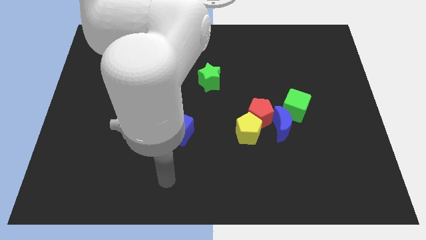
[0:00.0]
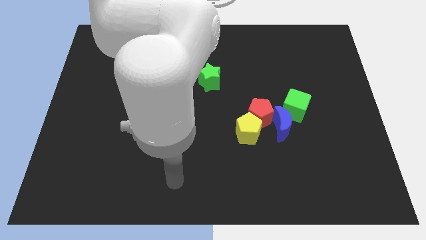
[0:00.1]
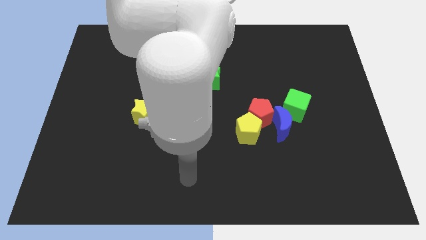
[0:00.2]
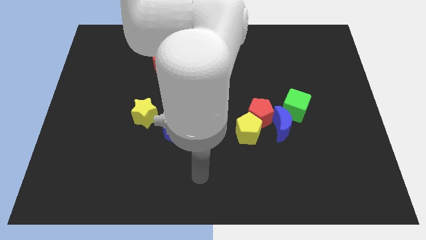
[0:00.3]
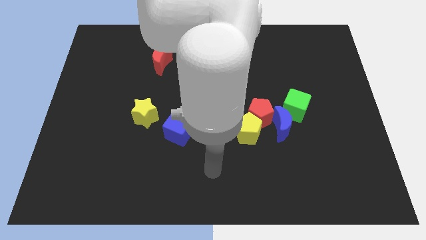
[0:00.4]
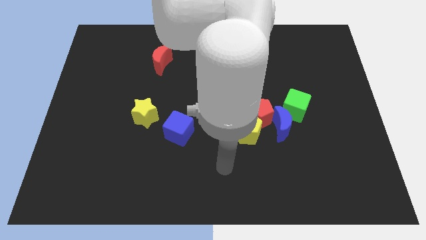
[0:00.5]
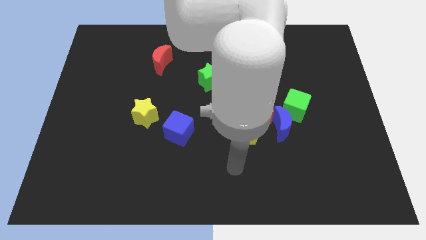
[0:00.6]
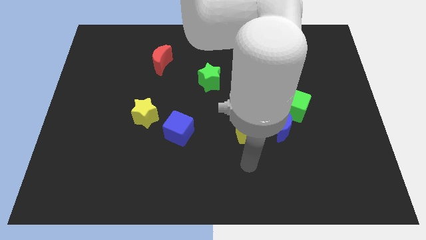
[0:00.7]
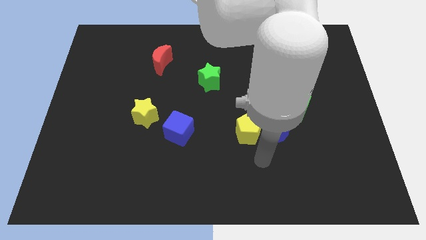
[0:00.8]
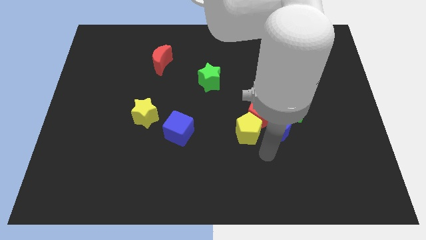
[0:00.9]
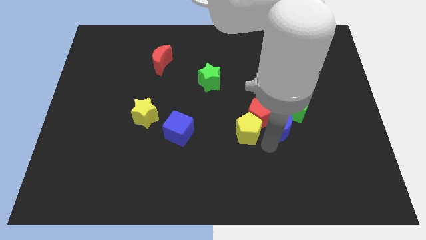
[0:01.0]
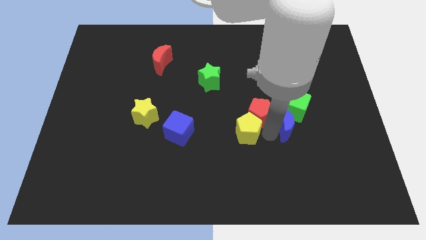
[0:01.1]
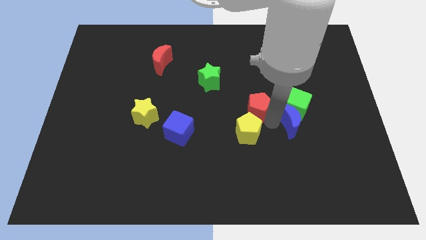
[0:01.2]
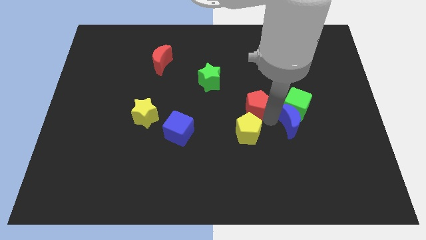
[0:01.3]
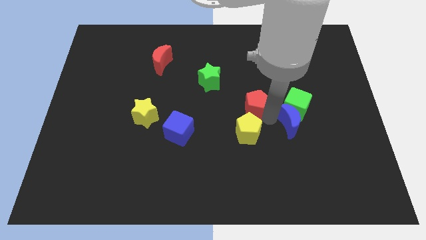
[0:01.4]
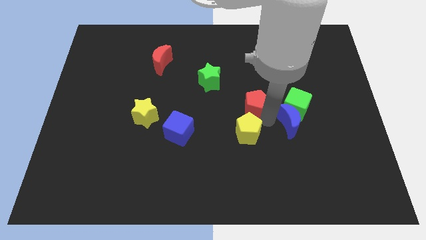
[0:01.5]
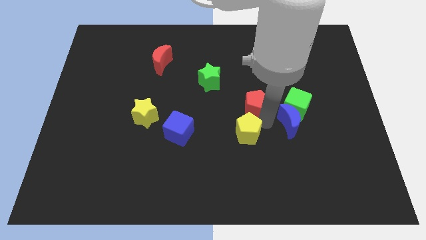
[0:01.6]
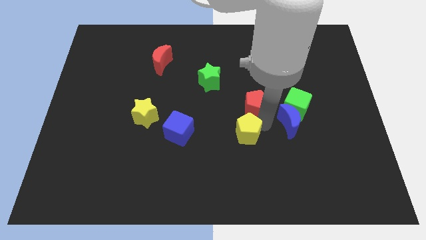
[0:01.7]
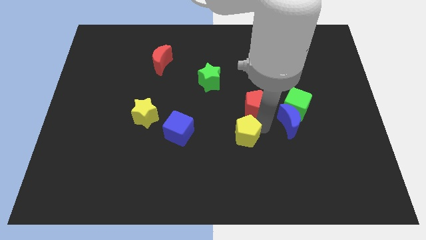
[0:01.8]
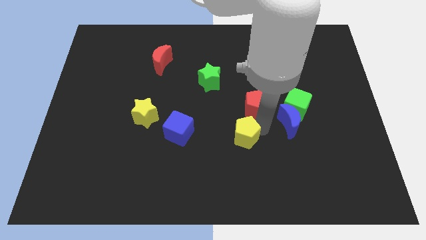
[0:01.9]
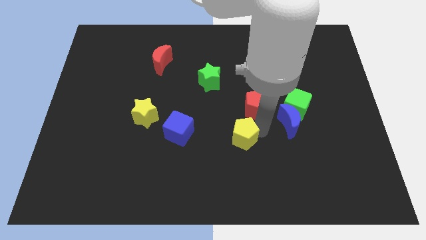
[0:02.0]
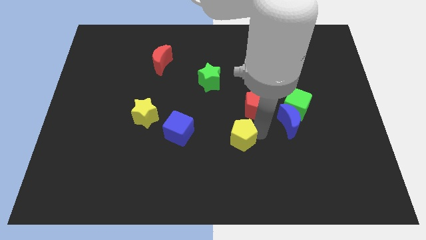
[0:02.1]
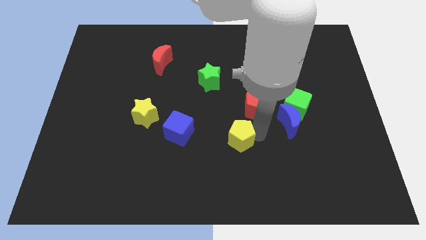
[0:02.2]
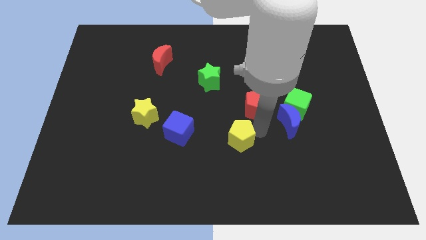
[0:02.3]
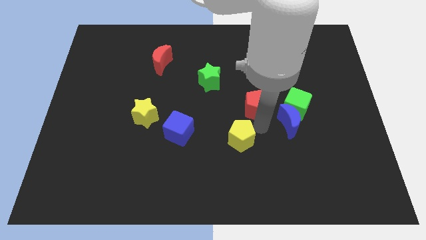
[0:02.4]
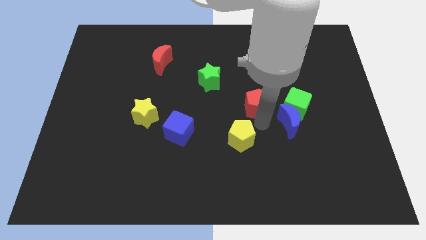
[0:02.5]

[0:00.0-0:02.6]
separate the yellow pentagon from the red pentagon and blue moon

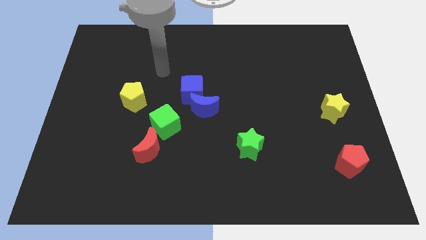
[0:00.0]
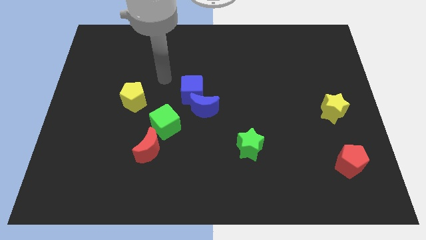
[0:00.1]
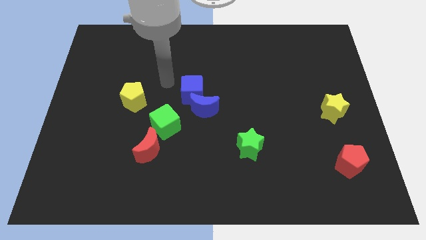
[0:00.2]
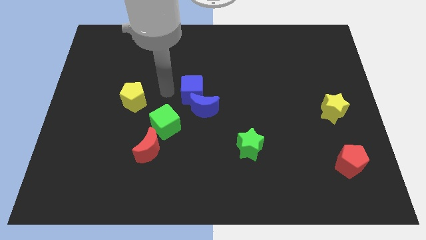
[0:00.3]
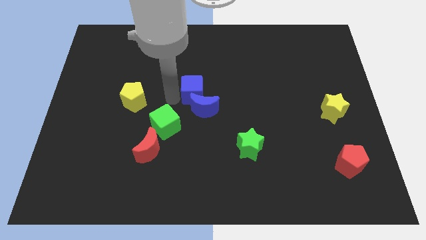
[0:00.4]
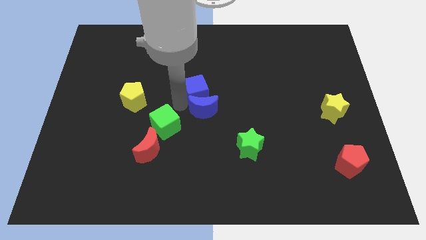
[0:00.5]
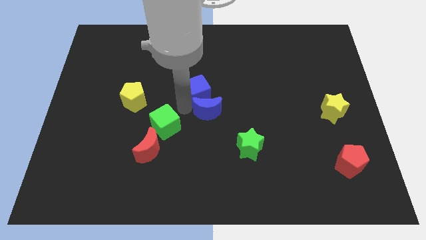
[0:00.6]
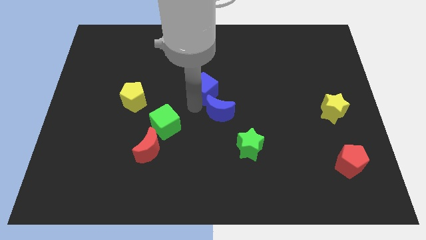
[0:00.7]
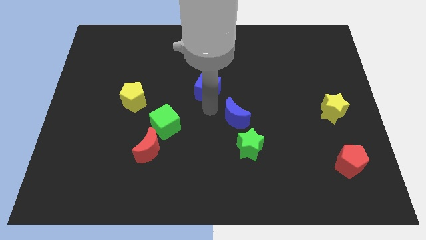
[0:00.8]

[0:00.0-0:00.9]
separate the blue cube from the blue moon

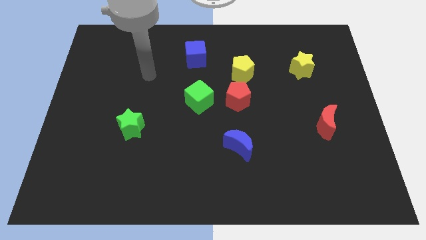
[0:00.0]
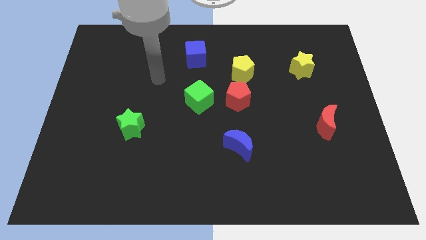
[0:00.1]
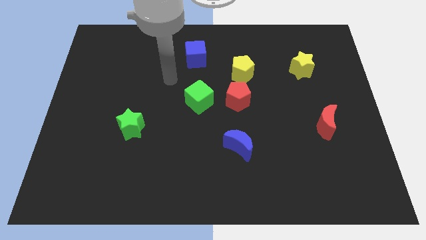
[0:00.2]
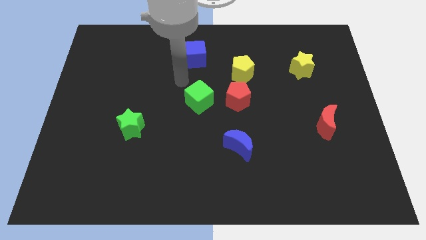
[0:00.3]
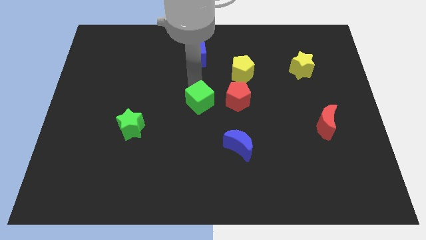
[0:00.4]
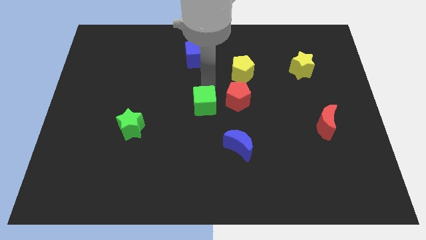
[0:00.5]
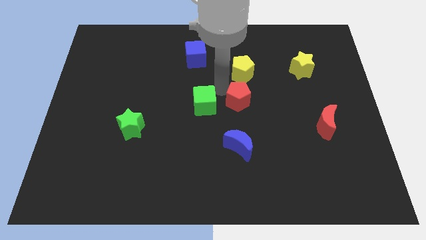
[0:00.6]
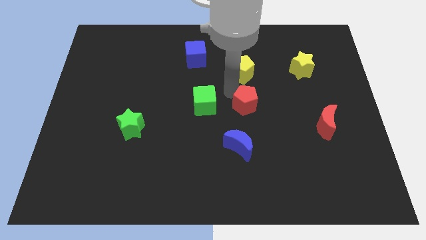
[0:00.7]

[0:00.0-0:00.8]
move the yellow pentagon away from the red pentagon

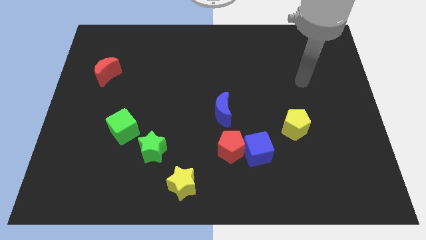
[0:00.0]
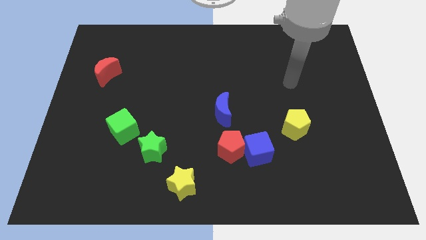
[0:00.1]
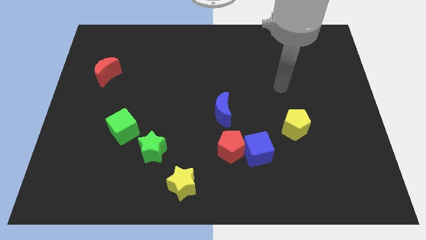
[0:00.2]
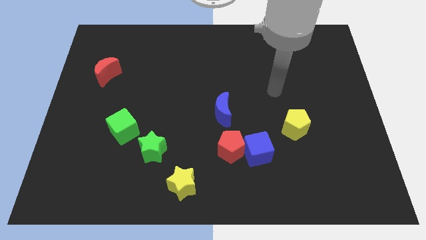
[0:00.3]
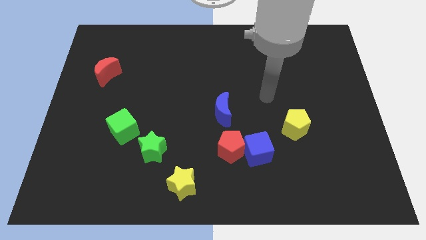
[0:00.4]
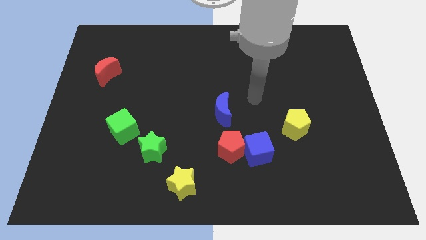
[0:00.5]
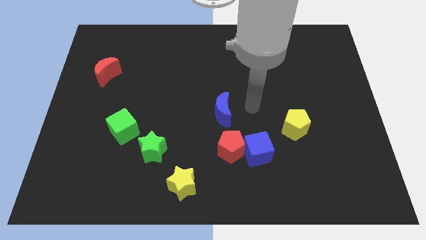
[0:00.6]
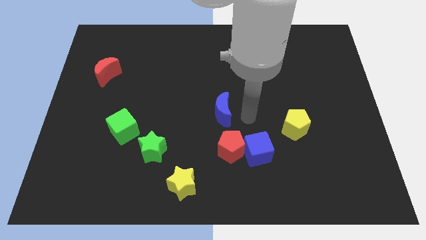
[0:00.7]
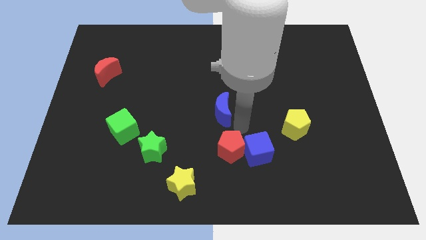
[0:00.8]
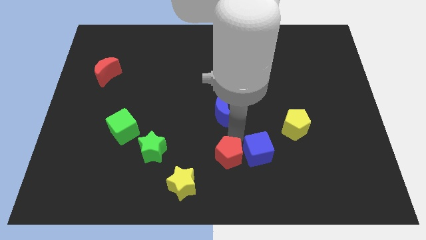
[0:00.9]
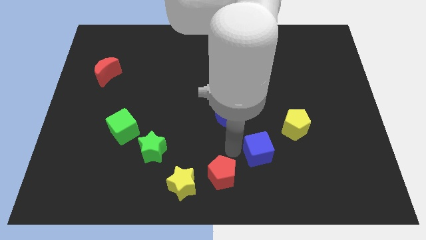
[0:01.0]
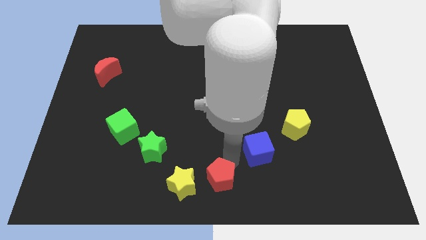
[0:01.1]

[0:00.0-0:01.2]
move the blue cube away from the red pentagon

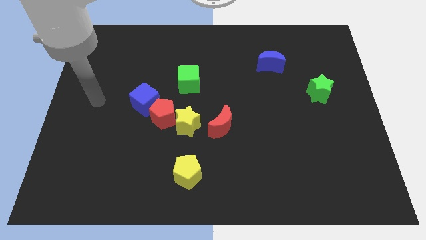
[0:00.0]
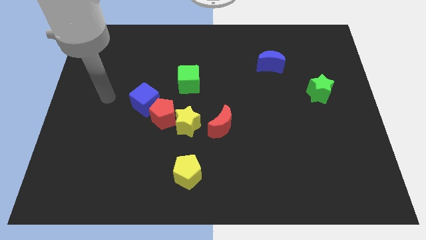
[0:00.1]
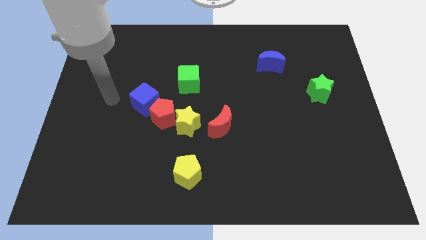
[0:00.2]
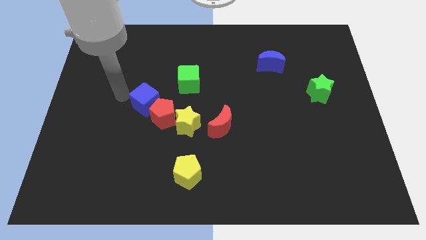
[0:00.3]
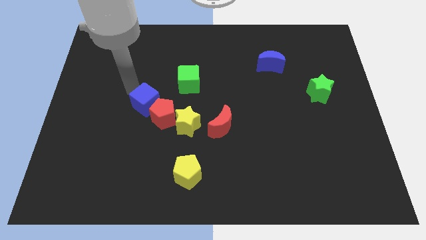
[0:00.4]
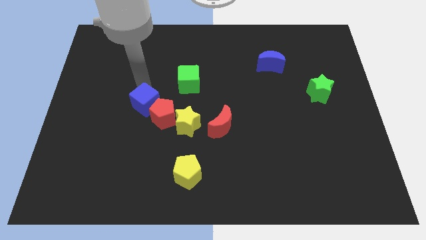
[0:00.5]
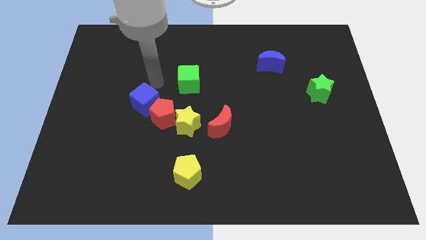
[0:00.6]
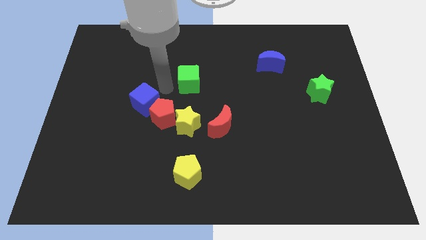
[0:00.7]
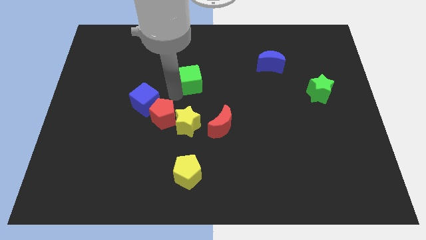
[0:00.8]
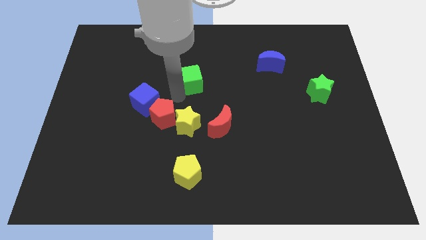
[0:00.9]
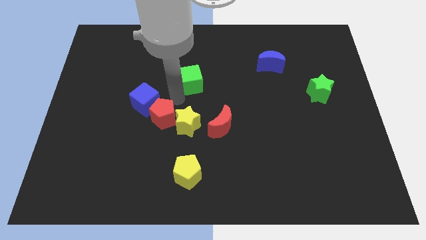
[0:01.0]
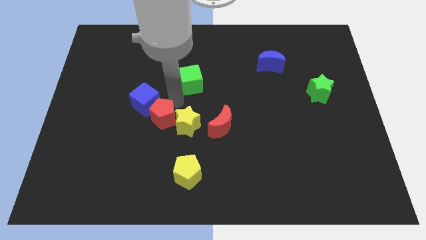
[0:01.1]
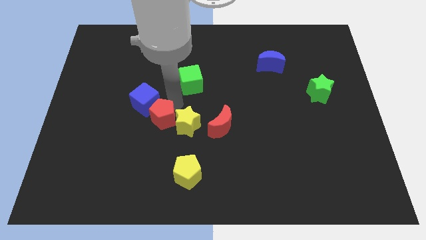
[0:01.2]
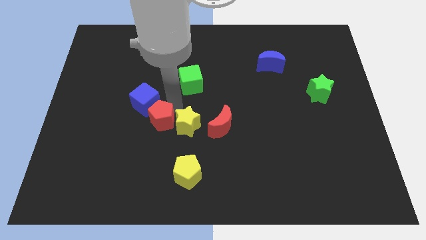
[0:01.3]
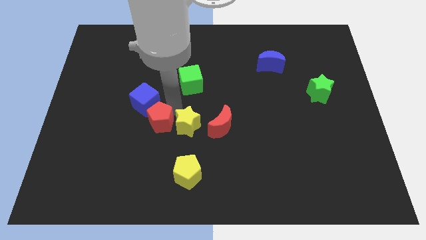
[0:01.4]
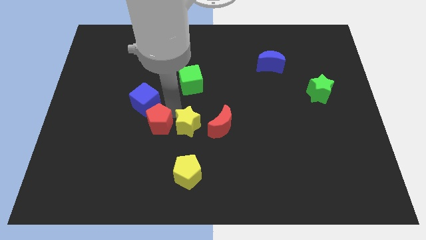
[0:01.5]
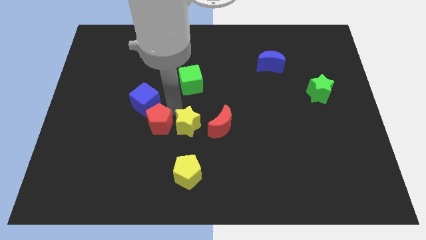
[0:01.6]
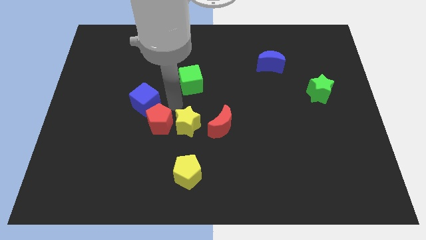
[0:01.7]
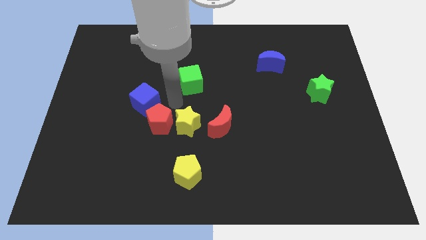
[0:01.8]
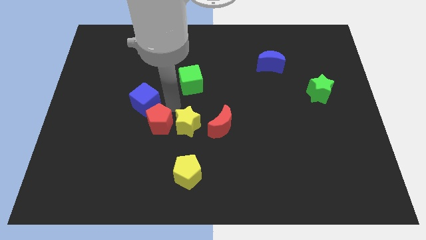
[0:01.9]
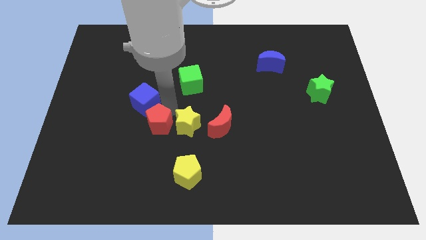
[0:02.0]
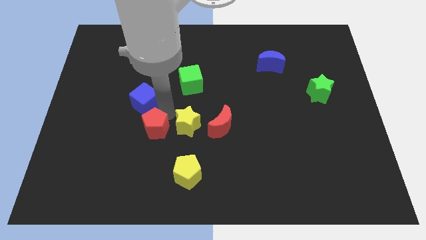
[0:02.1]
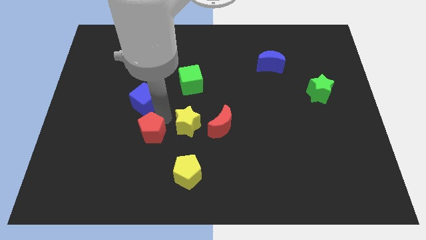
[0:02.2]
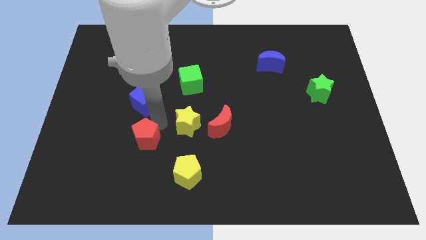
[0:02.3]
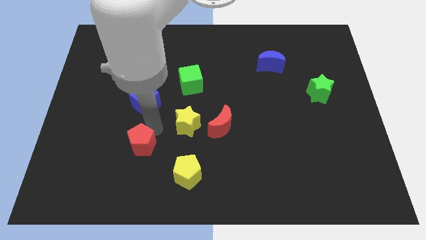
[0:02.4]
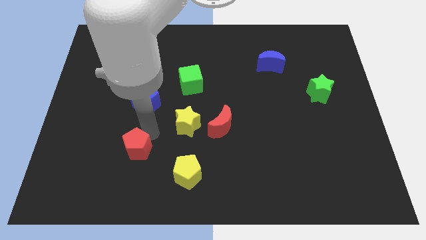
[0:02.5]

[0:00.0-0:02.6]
pull the red pentagon apart from the yellow star and blue cube

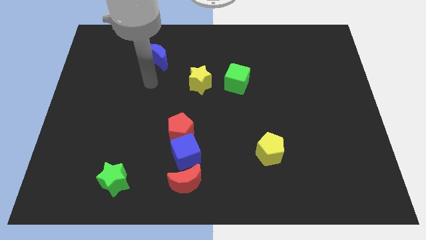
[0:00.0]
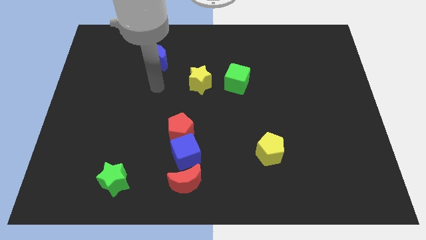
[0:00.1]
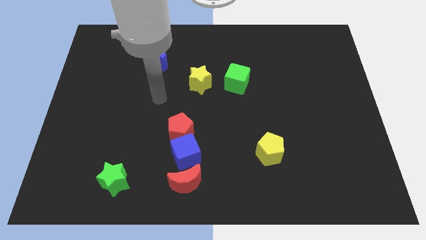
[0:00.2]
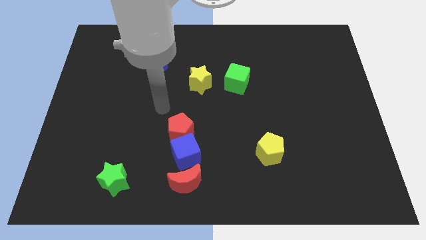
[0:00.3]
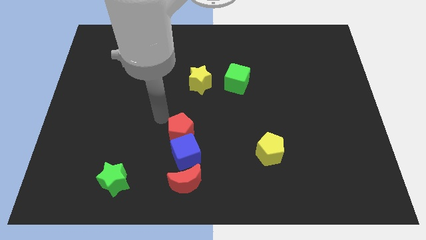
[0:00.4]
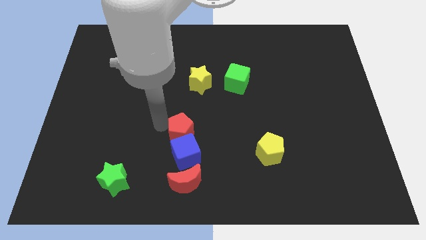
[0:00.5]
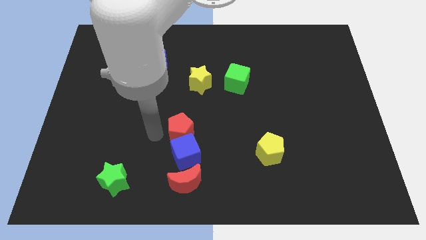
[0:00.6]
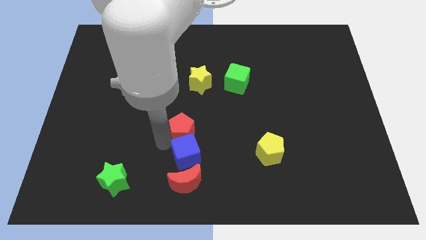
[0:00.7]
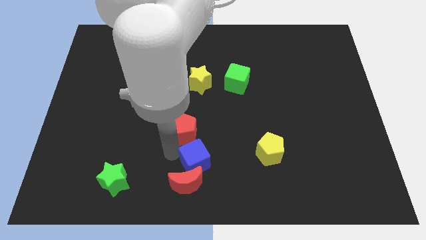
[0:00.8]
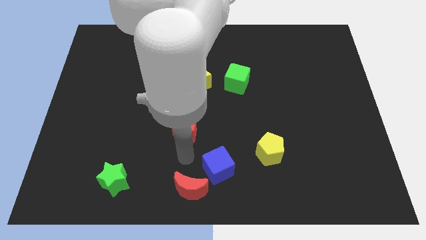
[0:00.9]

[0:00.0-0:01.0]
move the red pentagon away from the blue cube
